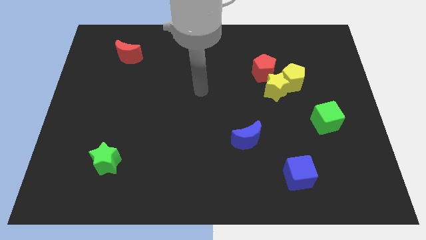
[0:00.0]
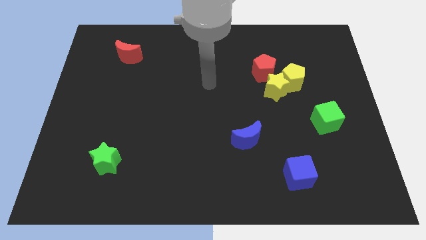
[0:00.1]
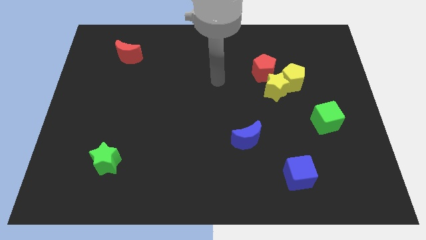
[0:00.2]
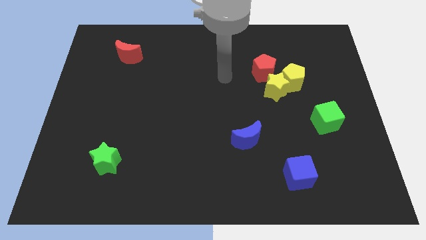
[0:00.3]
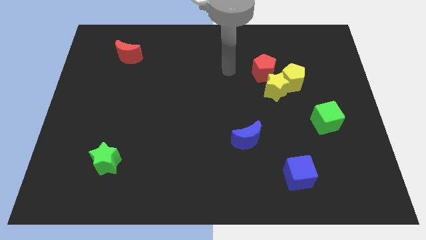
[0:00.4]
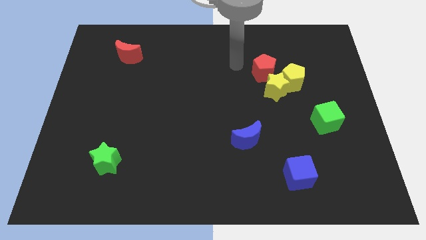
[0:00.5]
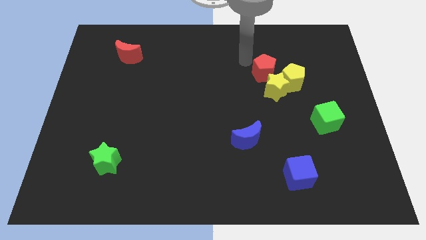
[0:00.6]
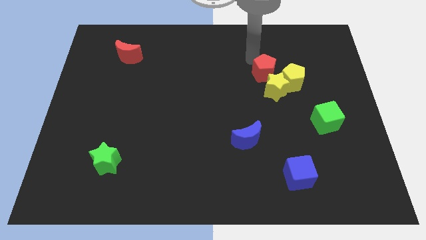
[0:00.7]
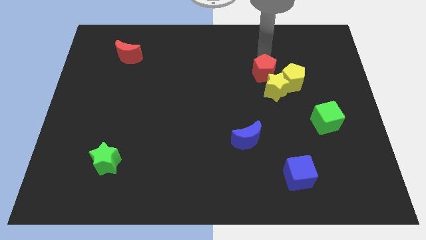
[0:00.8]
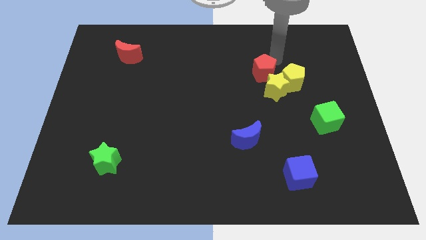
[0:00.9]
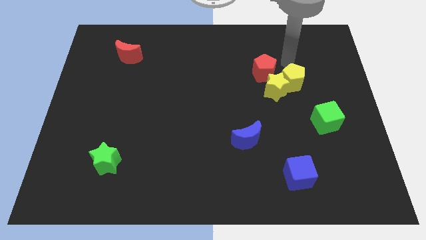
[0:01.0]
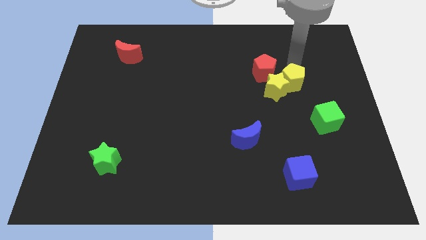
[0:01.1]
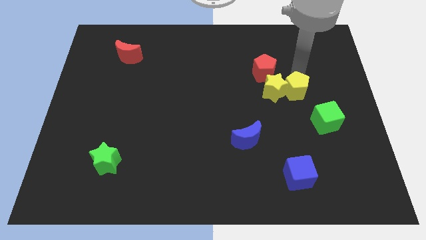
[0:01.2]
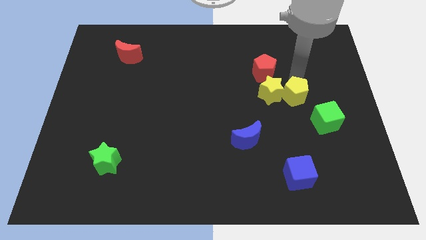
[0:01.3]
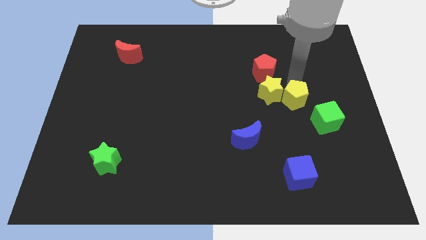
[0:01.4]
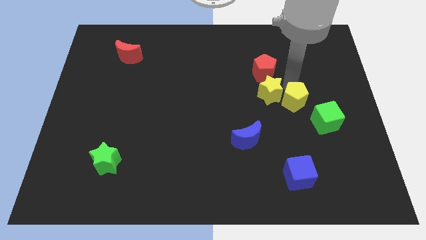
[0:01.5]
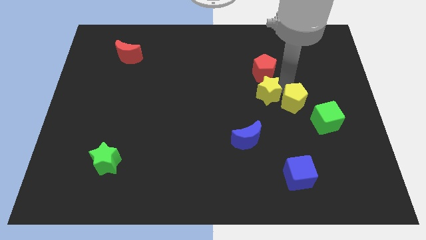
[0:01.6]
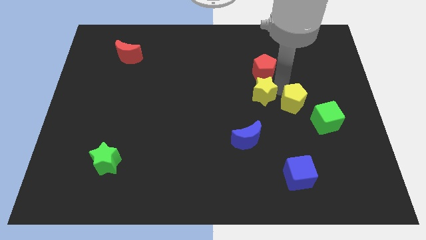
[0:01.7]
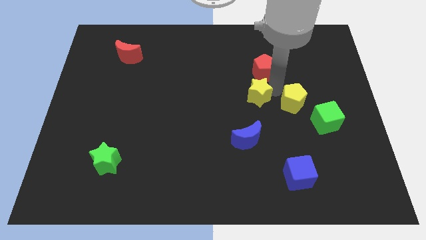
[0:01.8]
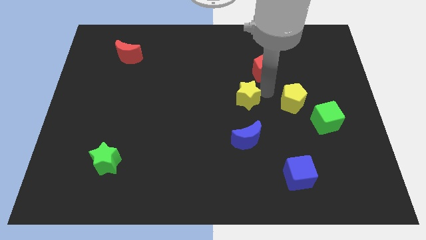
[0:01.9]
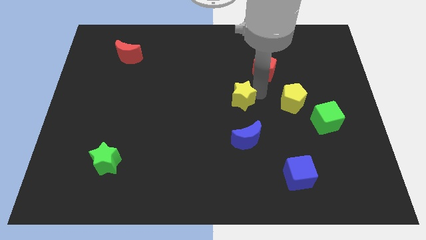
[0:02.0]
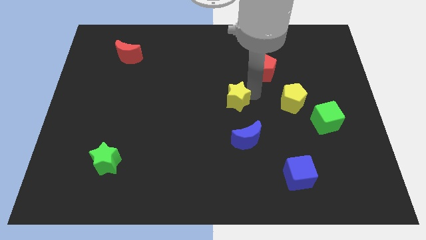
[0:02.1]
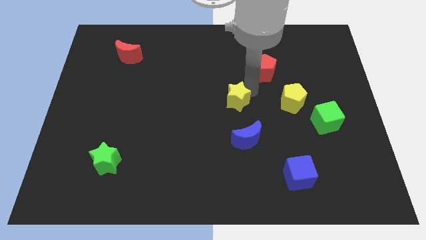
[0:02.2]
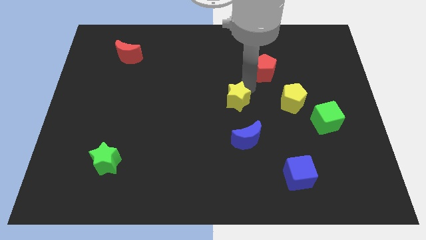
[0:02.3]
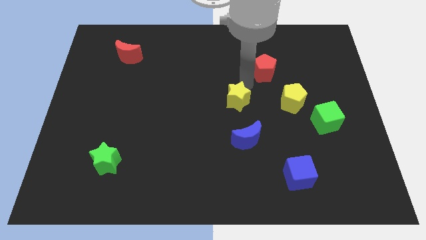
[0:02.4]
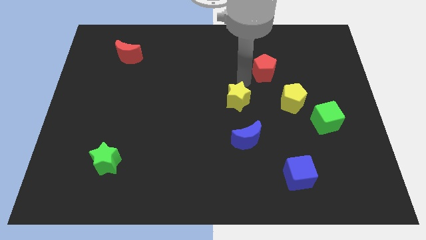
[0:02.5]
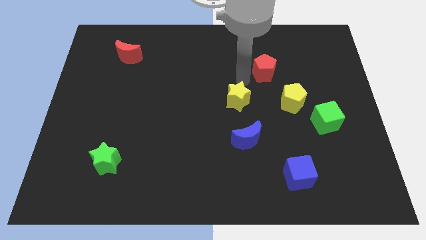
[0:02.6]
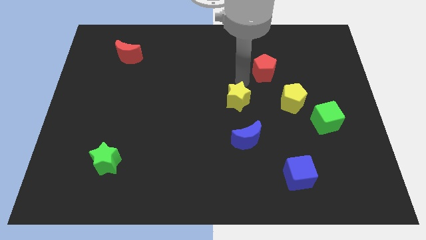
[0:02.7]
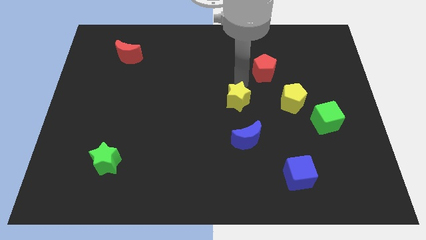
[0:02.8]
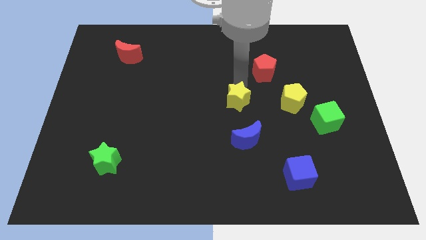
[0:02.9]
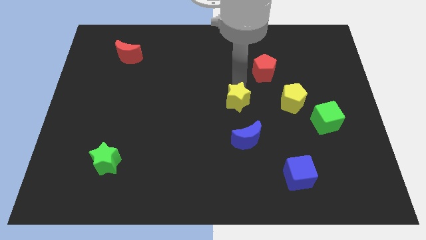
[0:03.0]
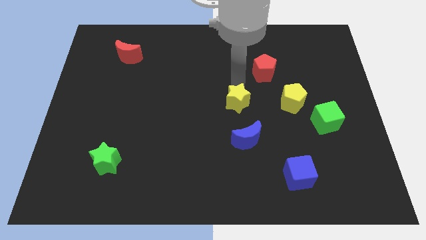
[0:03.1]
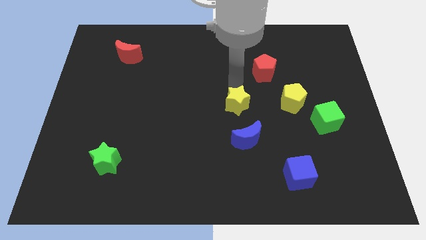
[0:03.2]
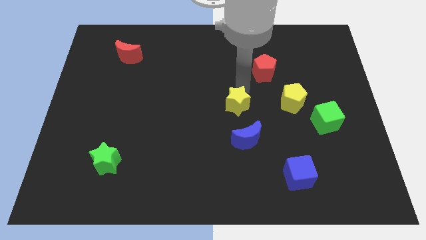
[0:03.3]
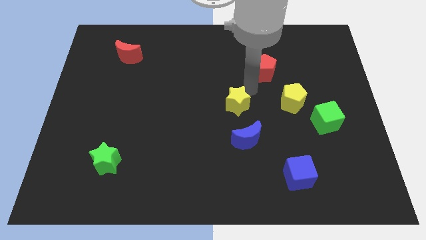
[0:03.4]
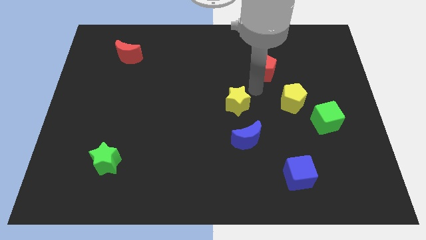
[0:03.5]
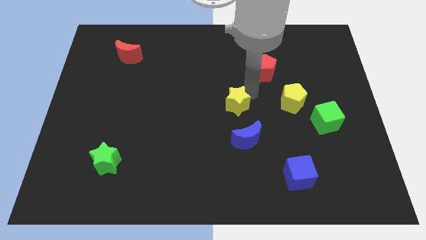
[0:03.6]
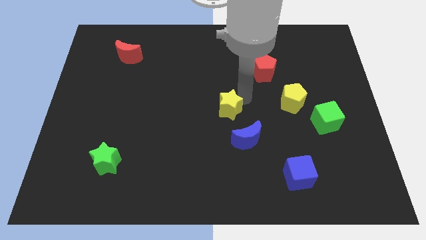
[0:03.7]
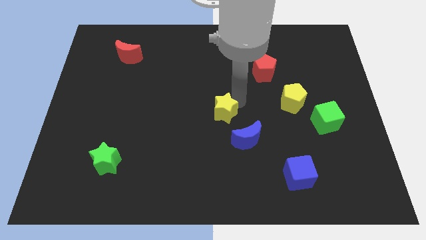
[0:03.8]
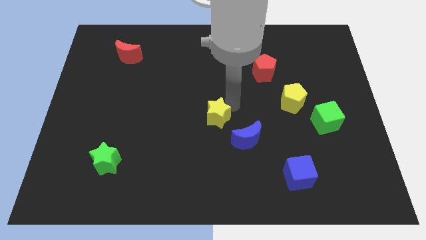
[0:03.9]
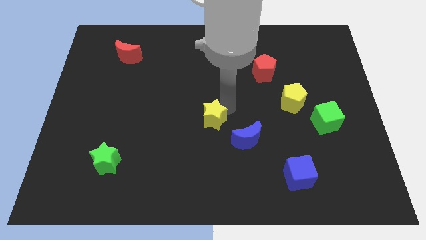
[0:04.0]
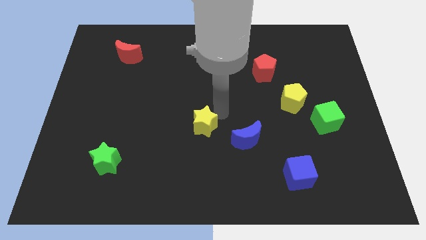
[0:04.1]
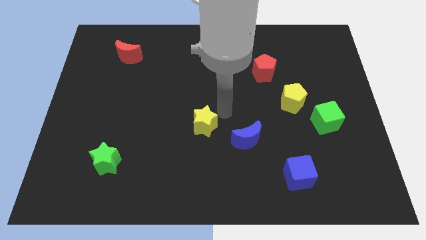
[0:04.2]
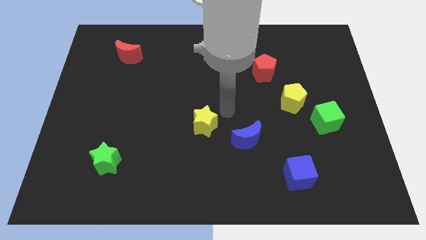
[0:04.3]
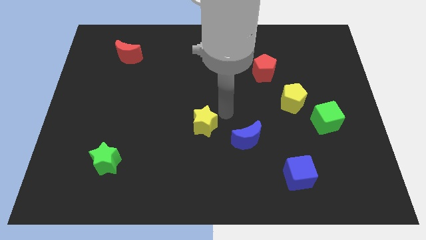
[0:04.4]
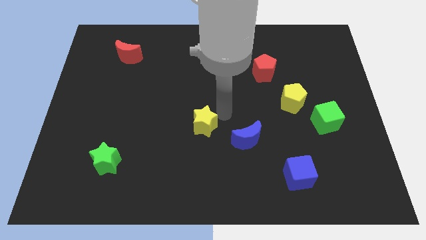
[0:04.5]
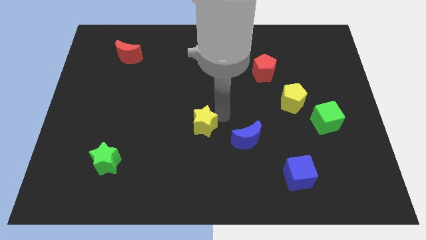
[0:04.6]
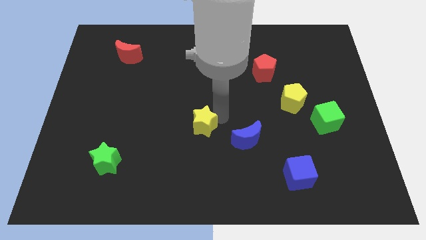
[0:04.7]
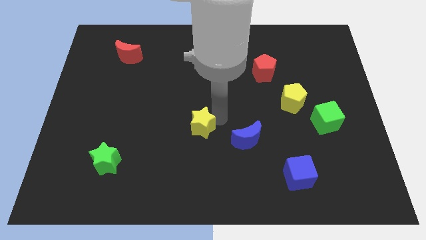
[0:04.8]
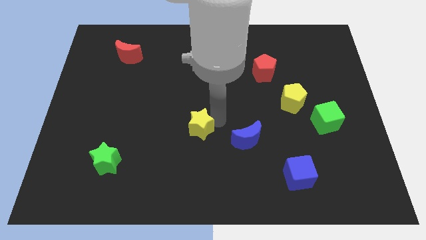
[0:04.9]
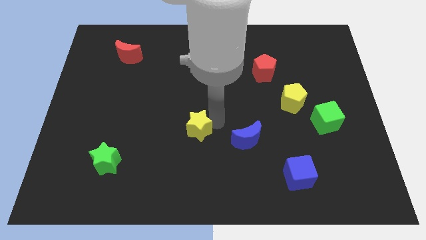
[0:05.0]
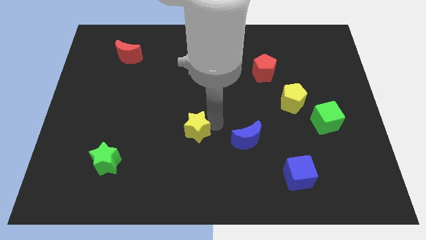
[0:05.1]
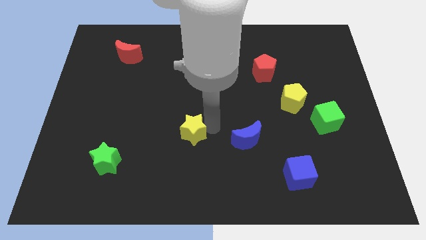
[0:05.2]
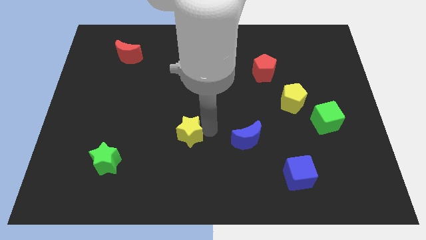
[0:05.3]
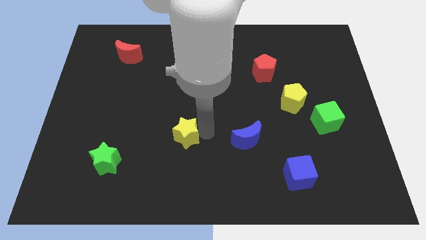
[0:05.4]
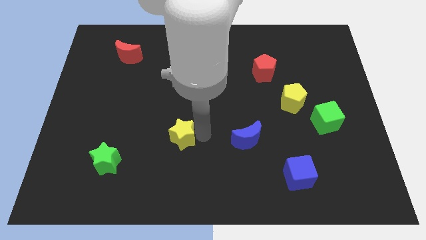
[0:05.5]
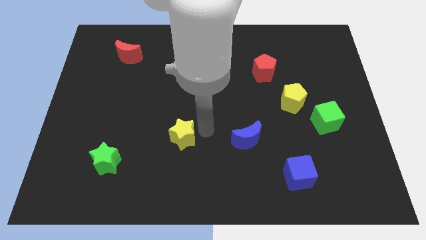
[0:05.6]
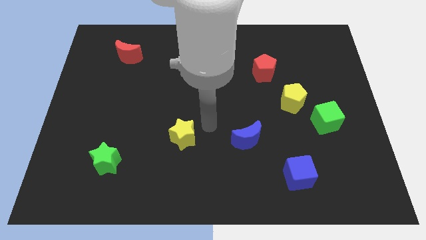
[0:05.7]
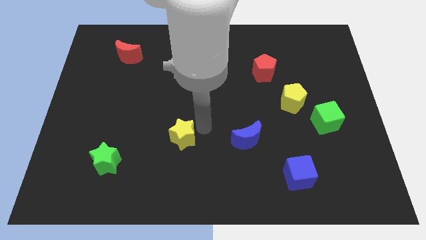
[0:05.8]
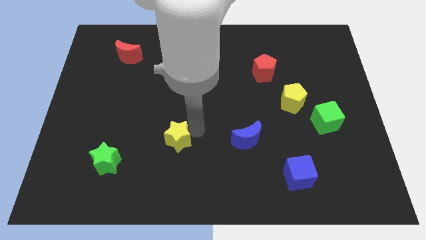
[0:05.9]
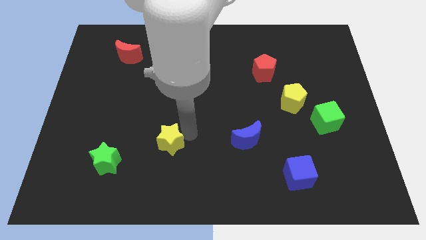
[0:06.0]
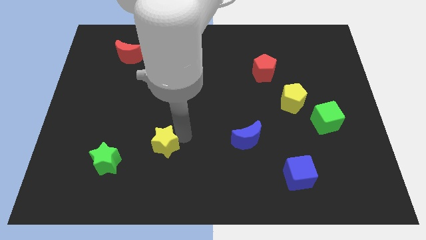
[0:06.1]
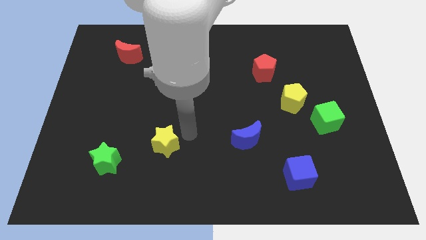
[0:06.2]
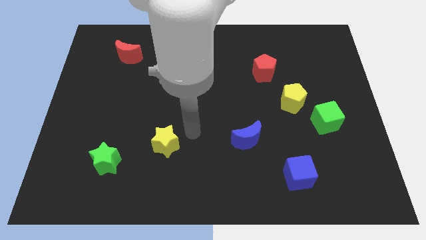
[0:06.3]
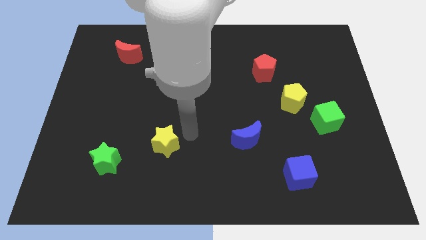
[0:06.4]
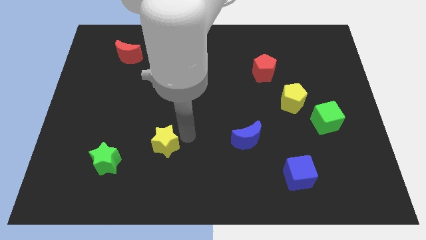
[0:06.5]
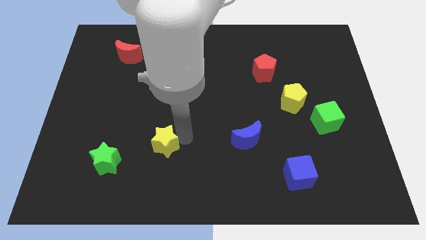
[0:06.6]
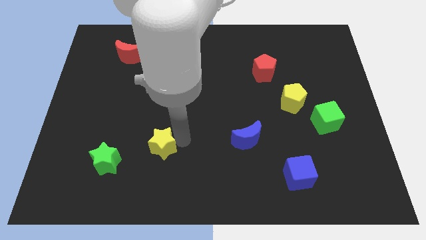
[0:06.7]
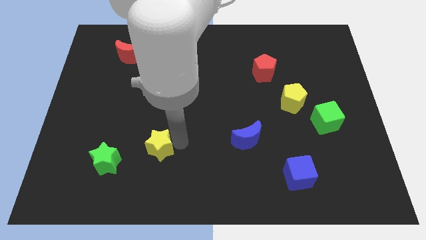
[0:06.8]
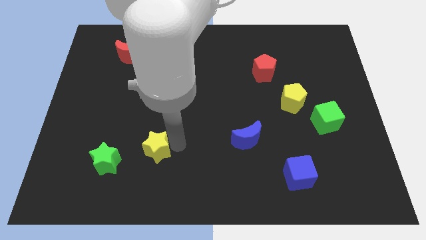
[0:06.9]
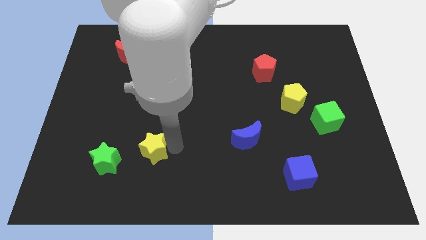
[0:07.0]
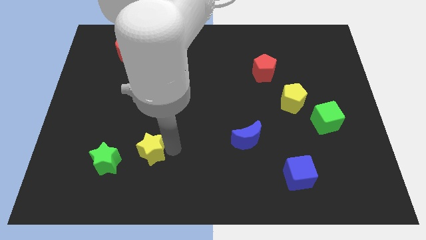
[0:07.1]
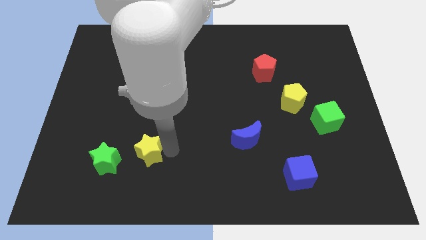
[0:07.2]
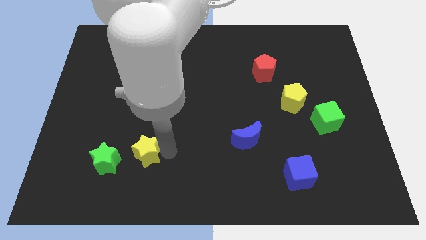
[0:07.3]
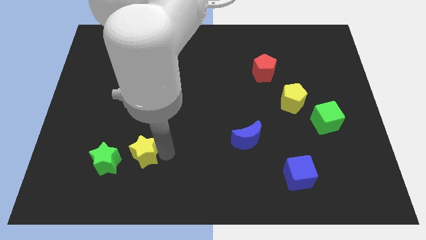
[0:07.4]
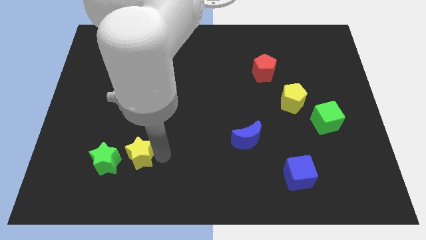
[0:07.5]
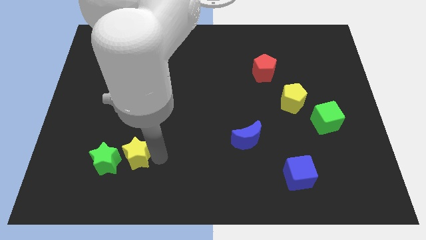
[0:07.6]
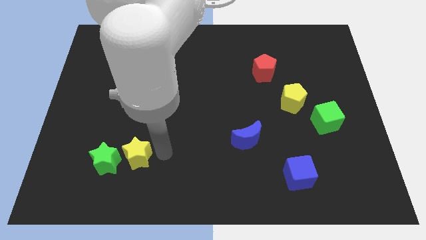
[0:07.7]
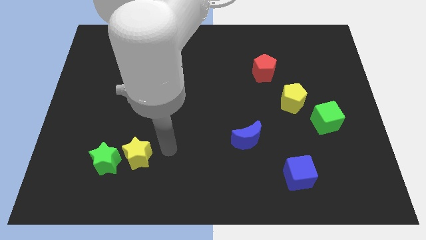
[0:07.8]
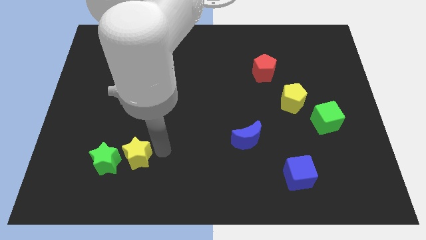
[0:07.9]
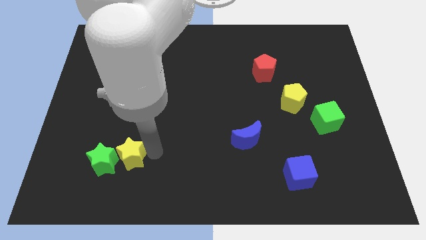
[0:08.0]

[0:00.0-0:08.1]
push the yellow star next to the green star
